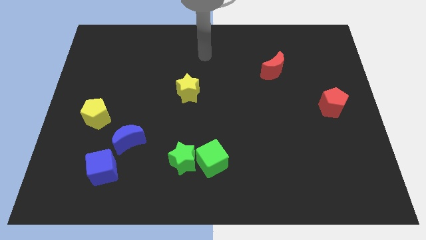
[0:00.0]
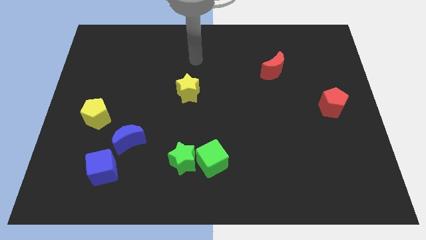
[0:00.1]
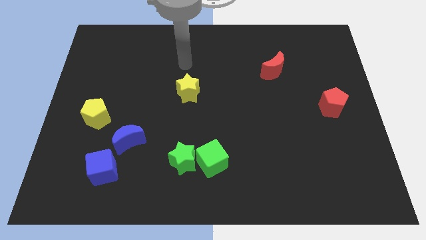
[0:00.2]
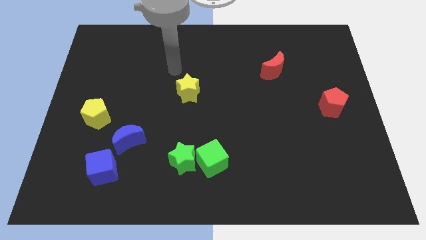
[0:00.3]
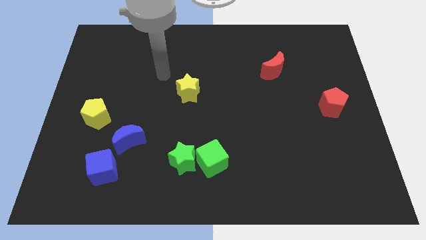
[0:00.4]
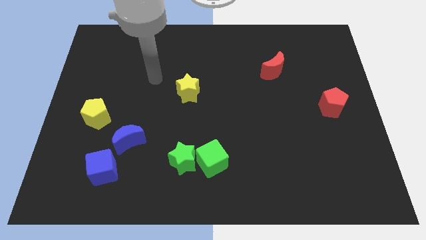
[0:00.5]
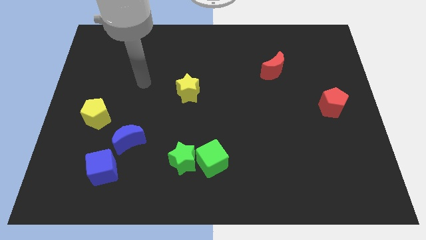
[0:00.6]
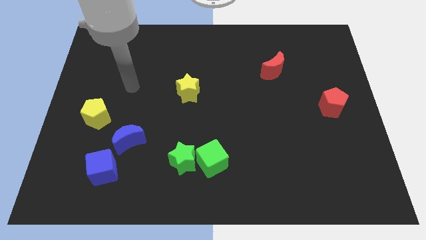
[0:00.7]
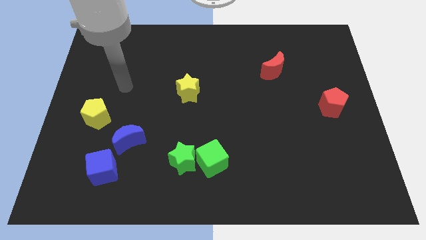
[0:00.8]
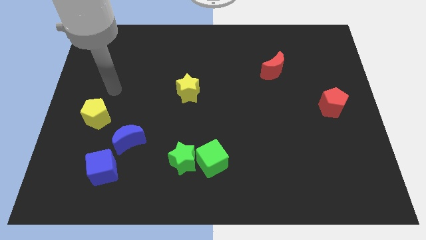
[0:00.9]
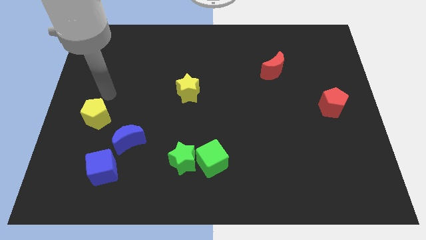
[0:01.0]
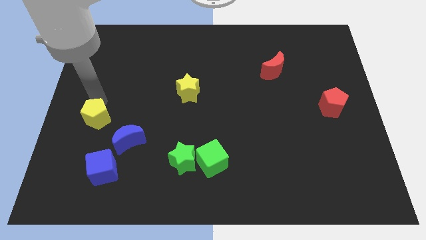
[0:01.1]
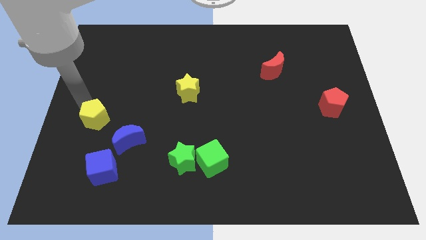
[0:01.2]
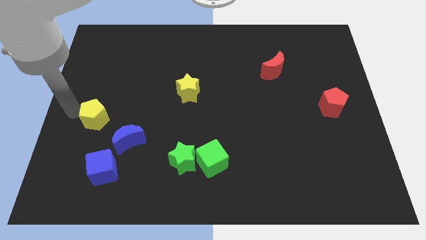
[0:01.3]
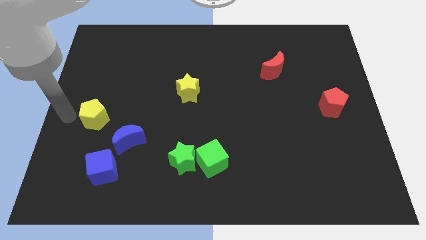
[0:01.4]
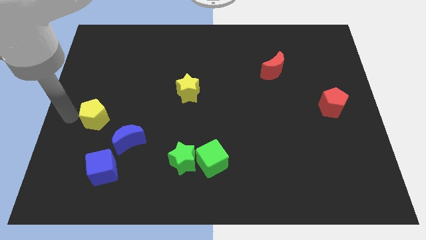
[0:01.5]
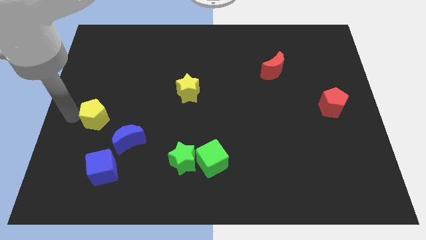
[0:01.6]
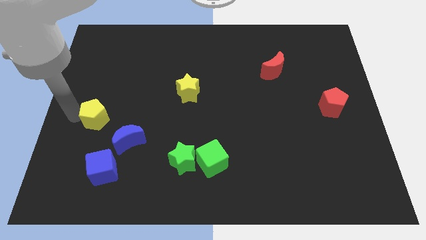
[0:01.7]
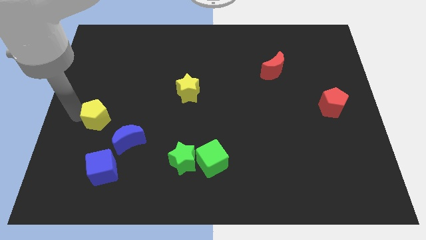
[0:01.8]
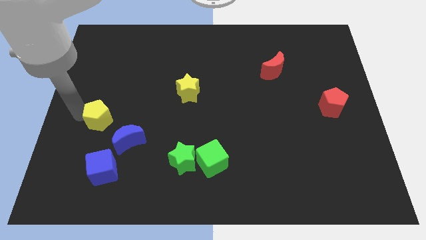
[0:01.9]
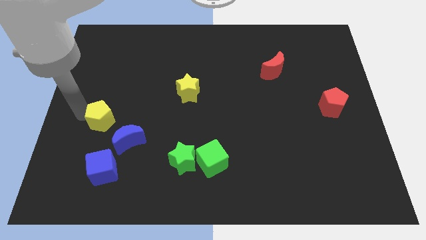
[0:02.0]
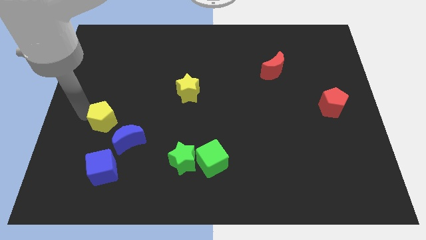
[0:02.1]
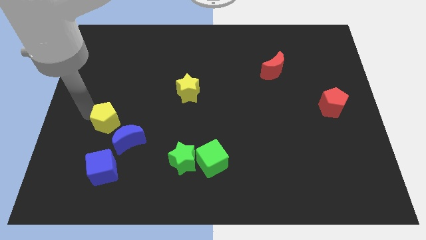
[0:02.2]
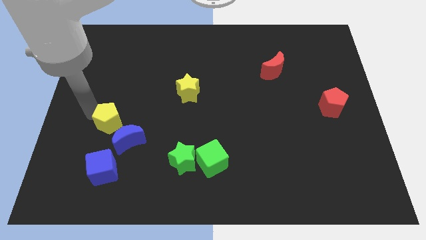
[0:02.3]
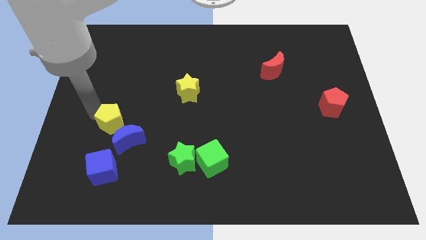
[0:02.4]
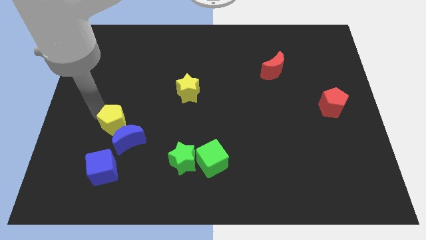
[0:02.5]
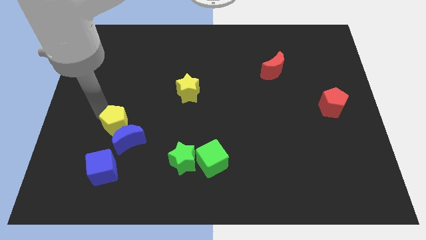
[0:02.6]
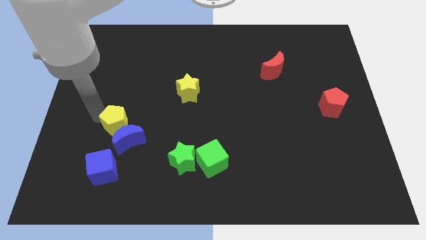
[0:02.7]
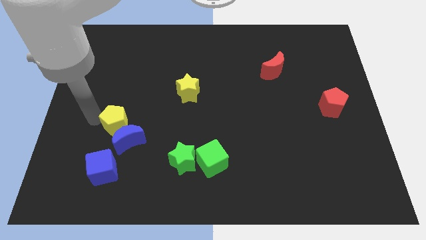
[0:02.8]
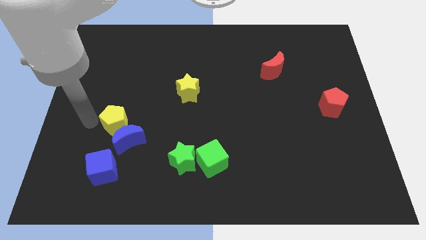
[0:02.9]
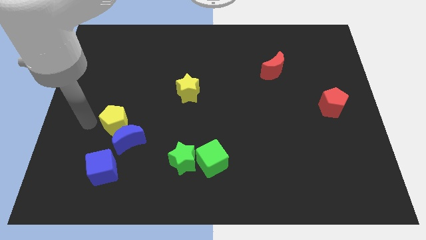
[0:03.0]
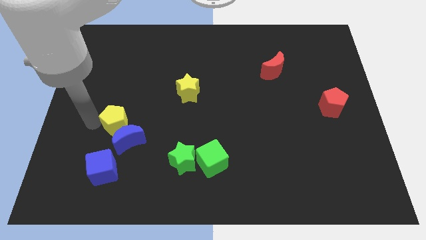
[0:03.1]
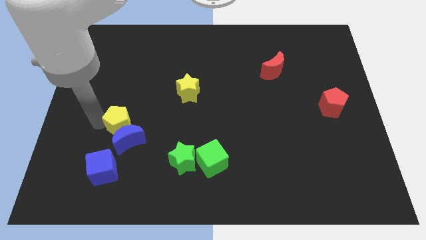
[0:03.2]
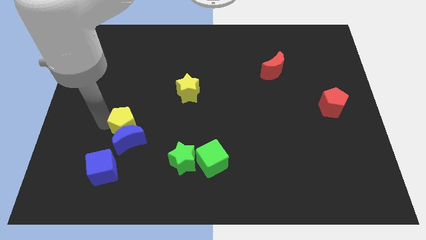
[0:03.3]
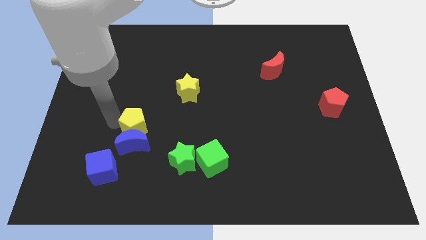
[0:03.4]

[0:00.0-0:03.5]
push the yellow pentagon diagonally downwards and to the right a little bit

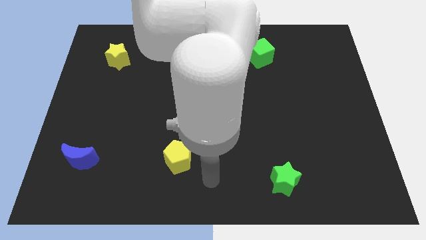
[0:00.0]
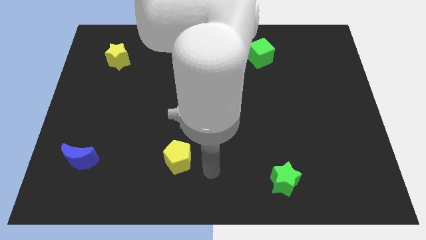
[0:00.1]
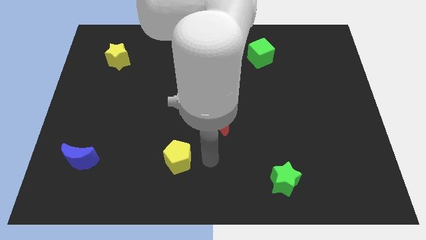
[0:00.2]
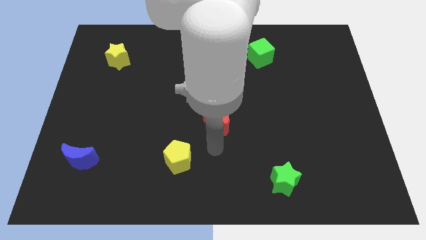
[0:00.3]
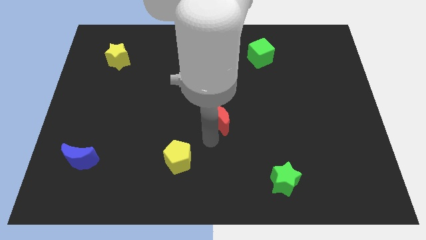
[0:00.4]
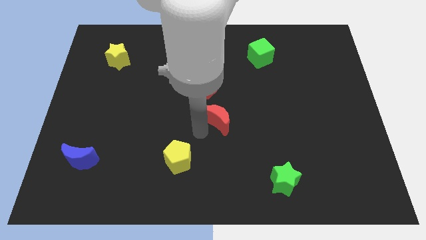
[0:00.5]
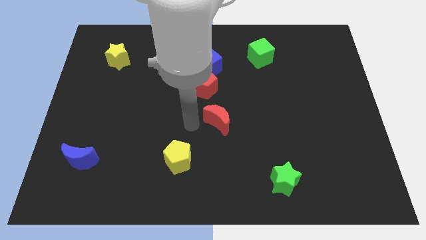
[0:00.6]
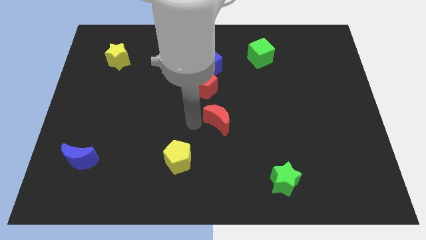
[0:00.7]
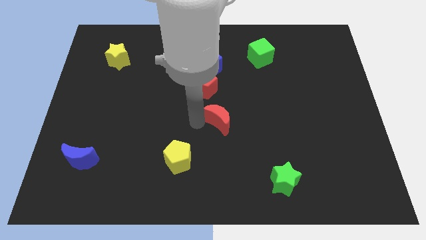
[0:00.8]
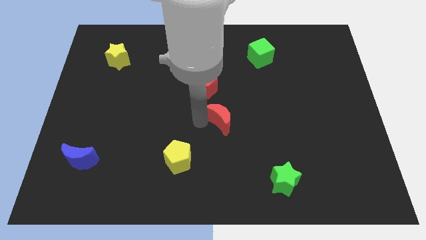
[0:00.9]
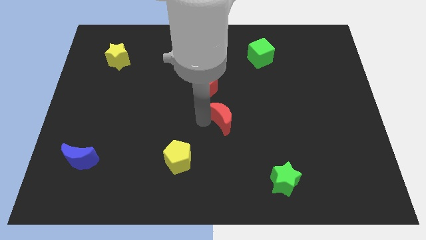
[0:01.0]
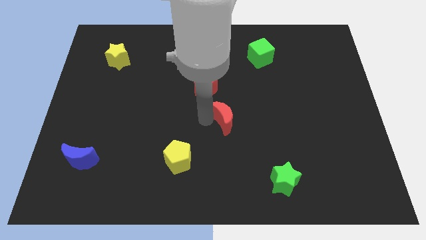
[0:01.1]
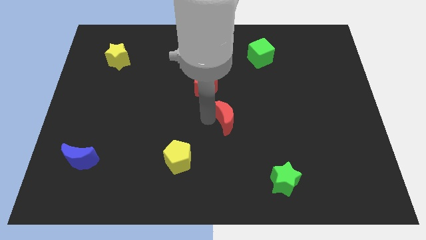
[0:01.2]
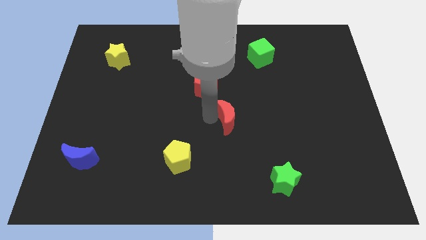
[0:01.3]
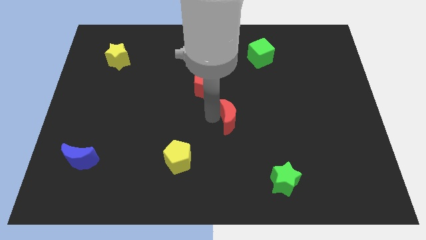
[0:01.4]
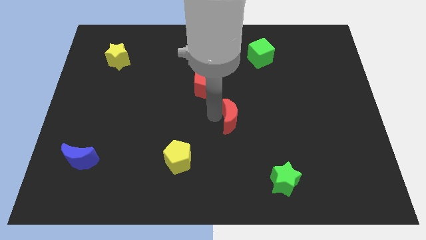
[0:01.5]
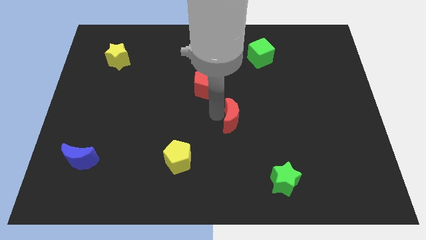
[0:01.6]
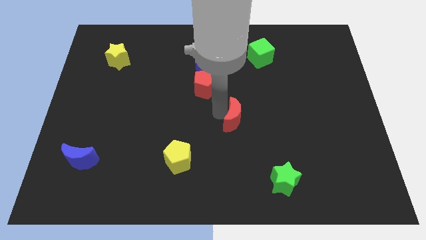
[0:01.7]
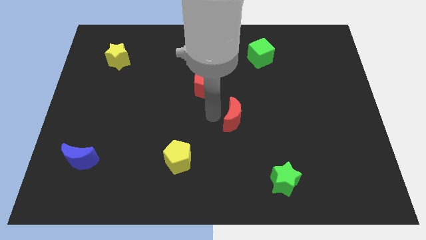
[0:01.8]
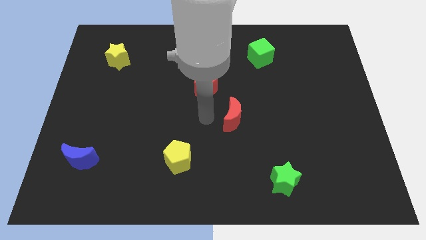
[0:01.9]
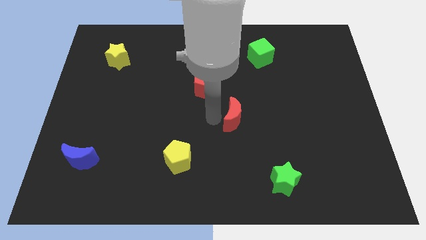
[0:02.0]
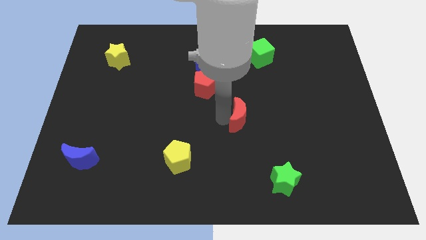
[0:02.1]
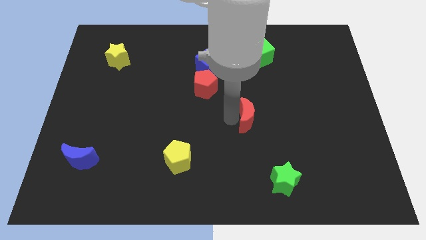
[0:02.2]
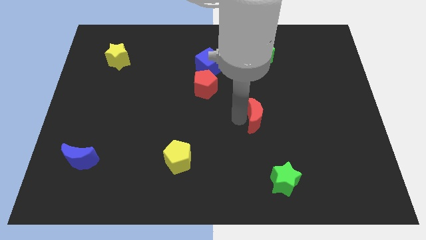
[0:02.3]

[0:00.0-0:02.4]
slide the red moon right a little bit

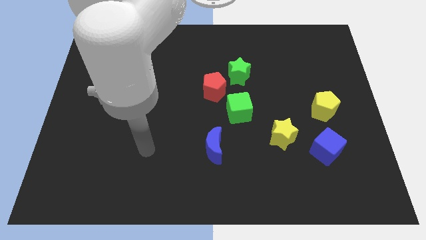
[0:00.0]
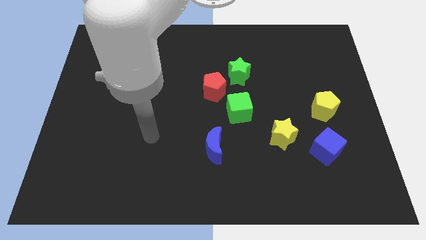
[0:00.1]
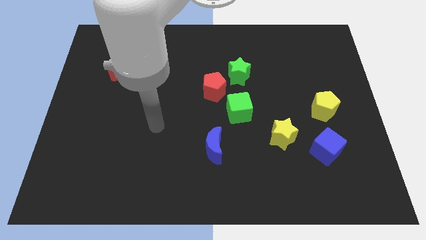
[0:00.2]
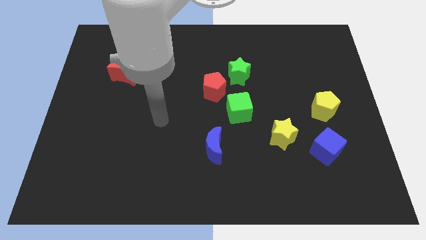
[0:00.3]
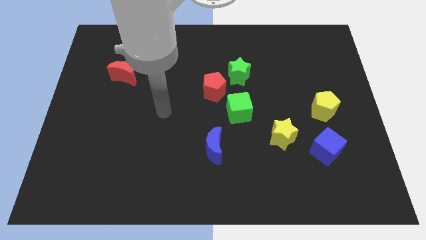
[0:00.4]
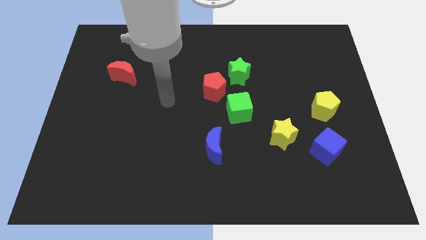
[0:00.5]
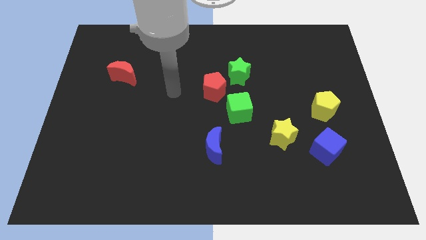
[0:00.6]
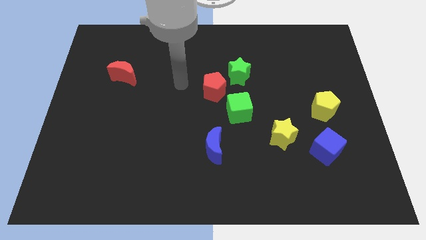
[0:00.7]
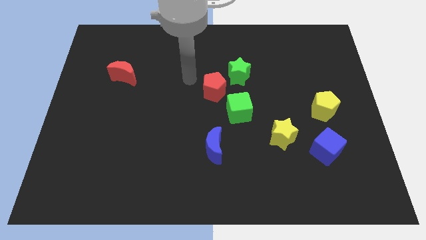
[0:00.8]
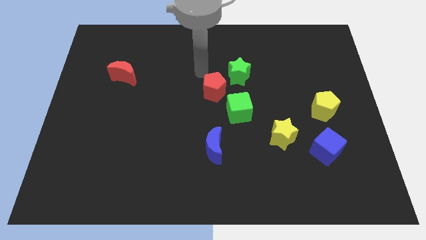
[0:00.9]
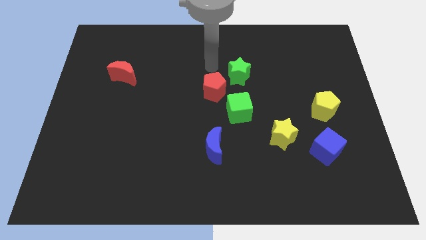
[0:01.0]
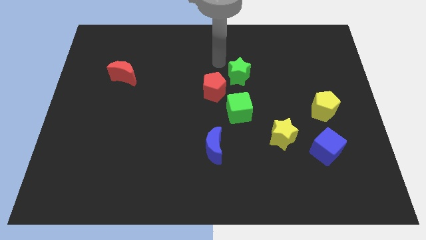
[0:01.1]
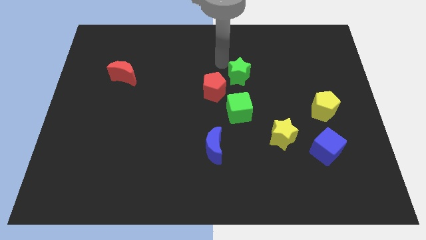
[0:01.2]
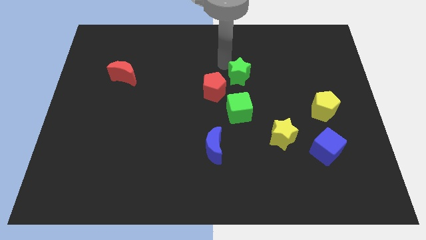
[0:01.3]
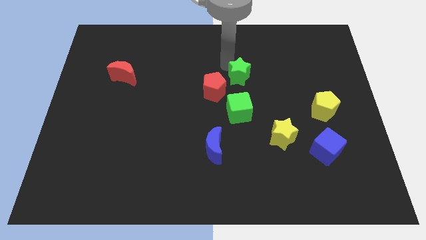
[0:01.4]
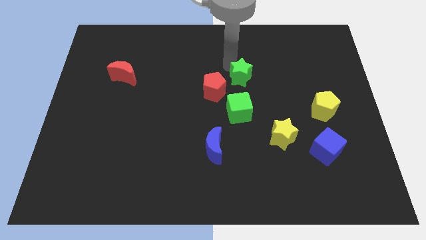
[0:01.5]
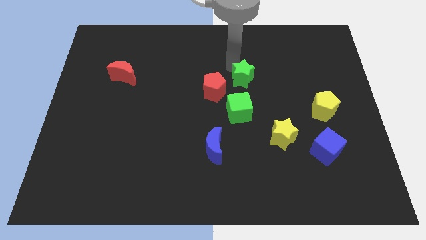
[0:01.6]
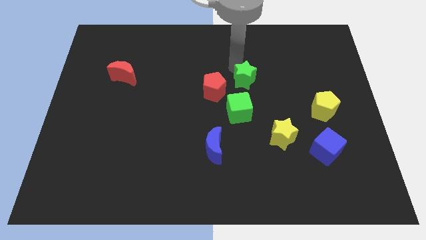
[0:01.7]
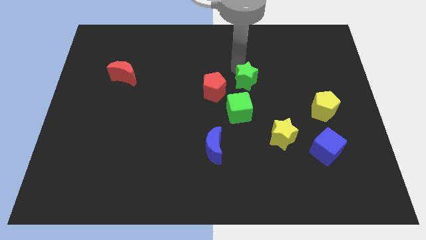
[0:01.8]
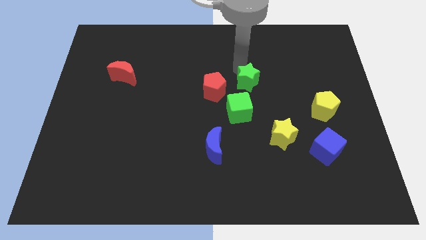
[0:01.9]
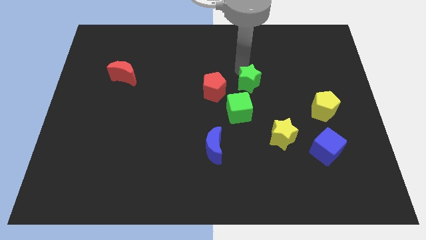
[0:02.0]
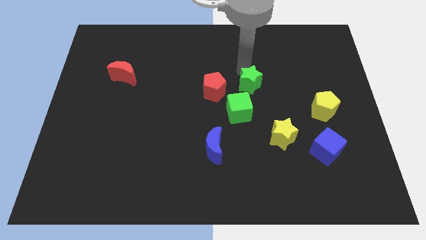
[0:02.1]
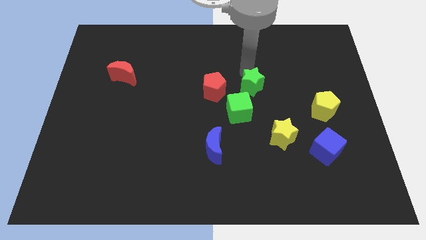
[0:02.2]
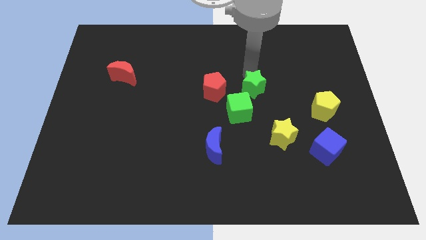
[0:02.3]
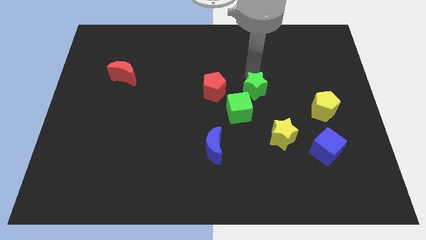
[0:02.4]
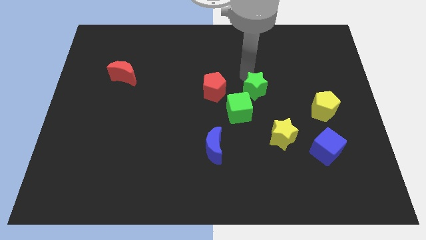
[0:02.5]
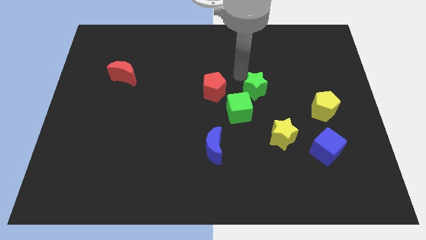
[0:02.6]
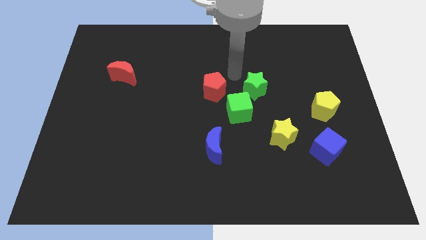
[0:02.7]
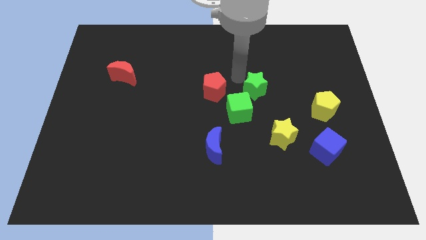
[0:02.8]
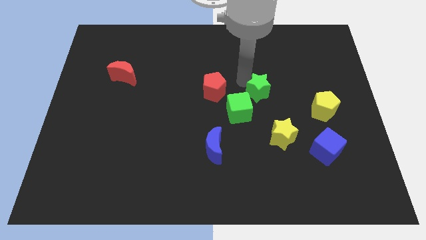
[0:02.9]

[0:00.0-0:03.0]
slide the green star down and then right a little
